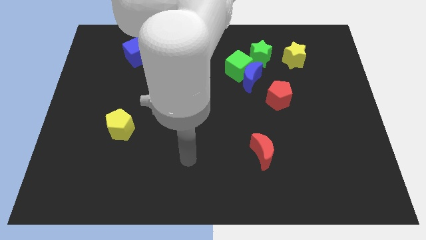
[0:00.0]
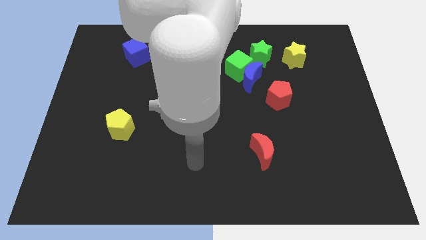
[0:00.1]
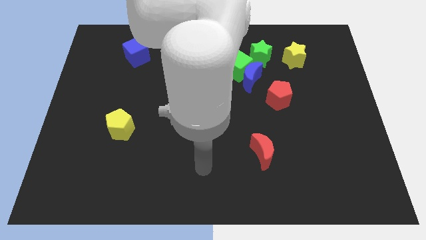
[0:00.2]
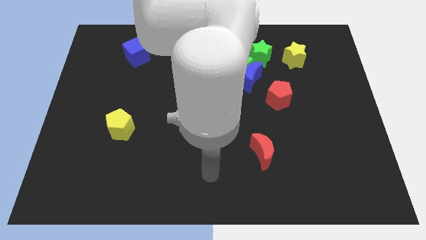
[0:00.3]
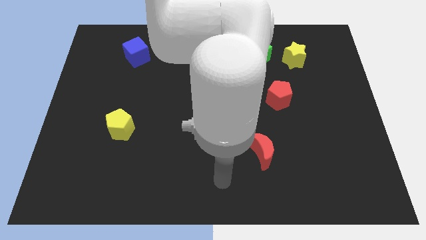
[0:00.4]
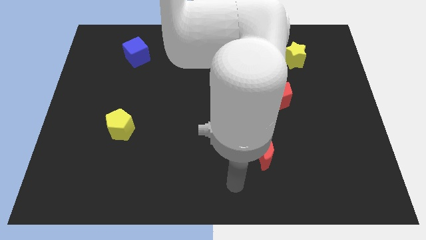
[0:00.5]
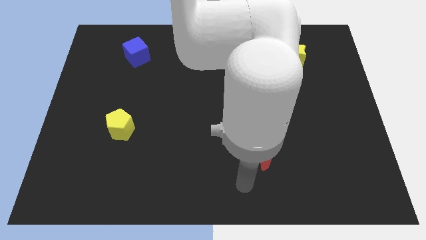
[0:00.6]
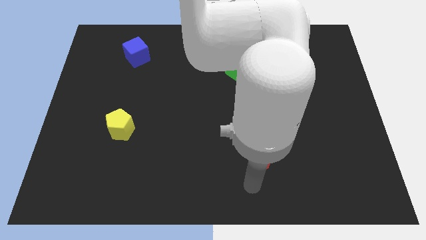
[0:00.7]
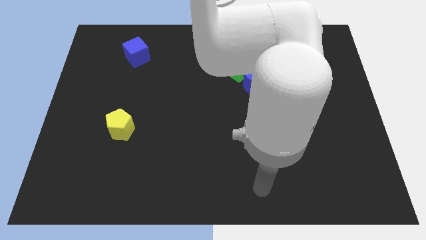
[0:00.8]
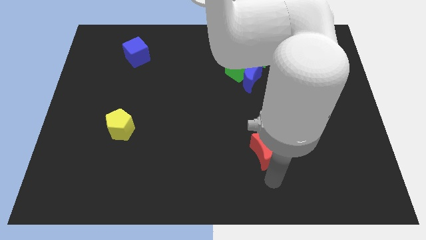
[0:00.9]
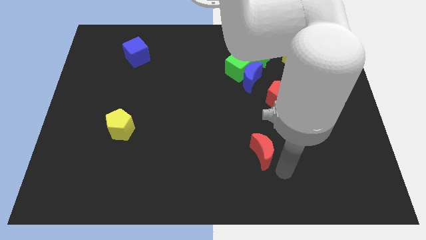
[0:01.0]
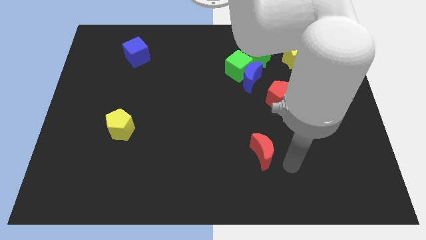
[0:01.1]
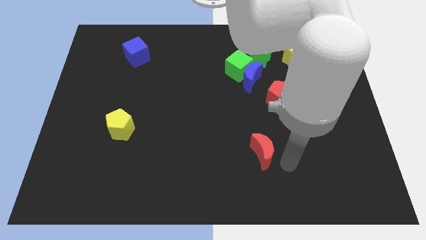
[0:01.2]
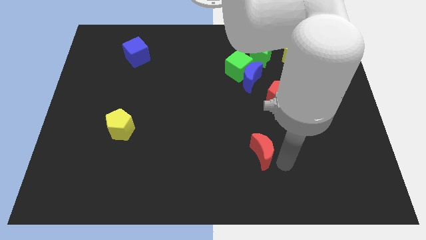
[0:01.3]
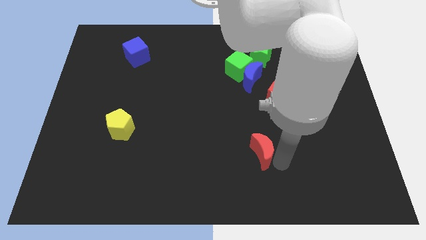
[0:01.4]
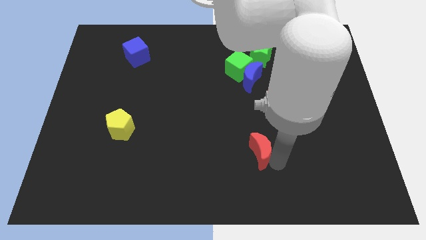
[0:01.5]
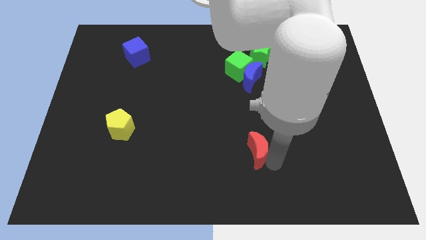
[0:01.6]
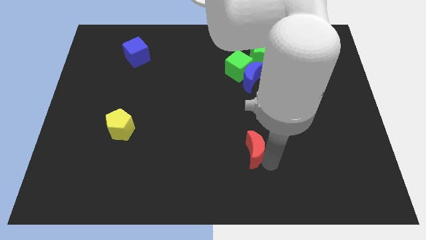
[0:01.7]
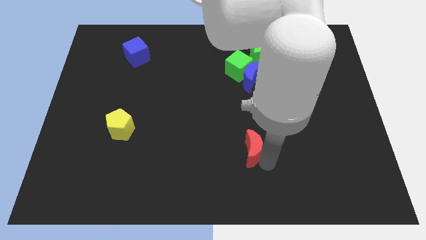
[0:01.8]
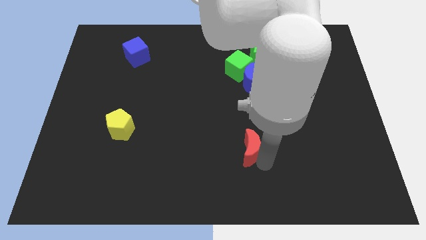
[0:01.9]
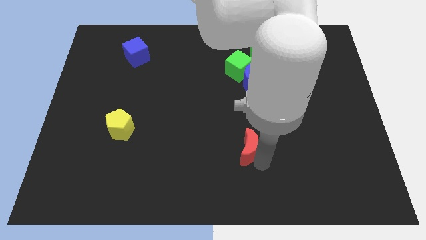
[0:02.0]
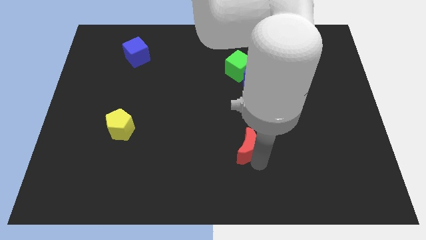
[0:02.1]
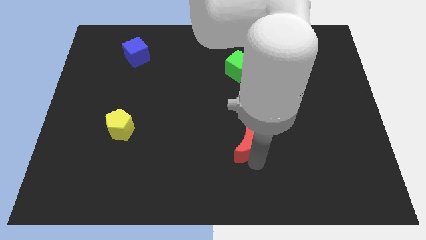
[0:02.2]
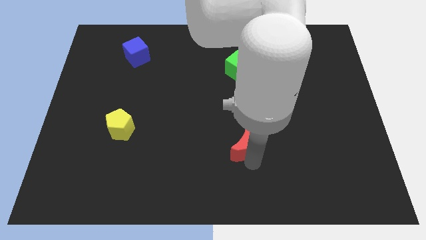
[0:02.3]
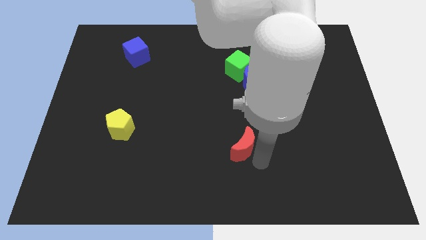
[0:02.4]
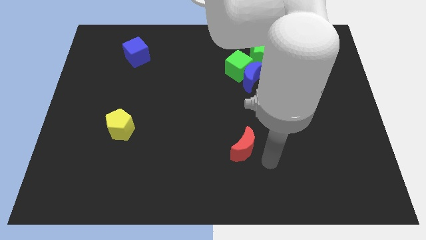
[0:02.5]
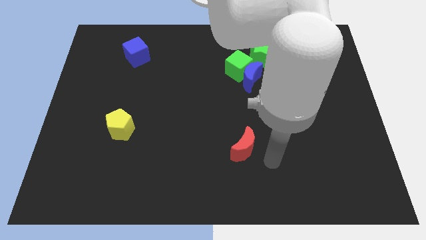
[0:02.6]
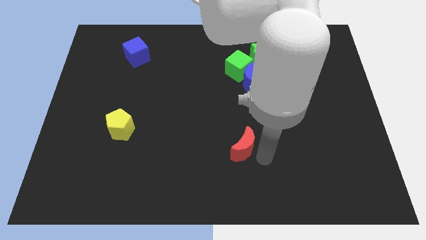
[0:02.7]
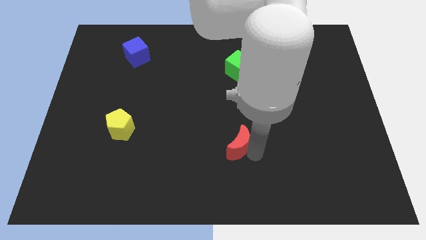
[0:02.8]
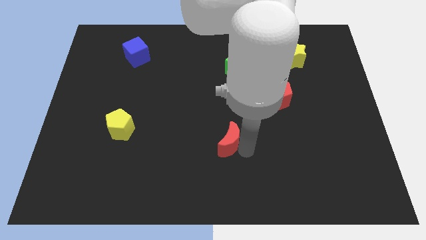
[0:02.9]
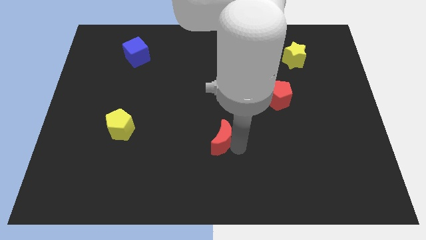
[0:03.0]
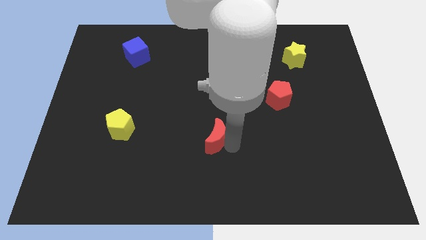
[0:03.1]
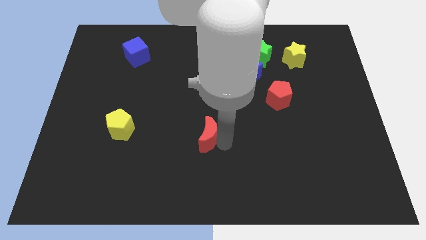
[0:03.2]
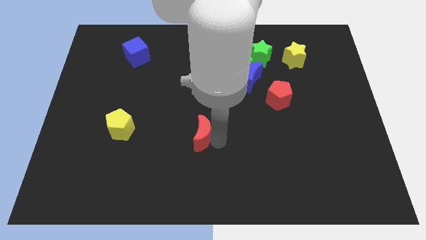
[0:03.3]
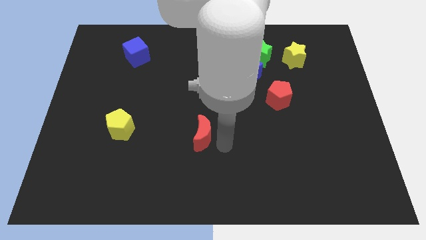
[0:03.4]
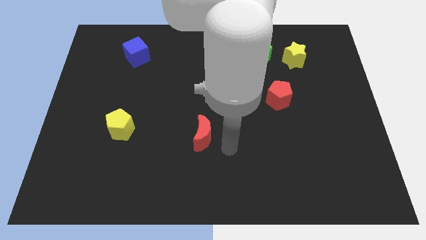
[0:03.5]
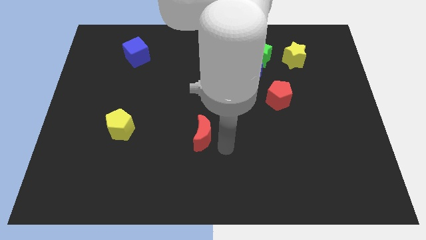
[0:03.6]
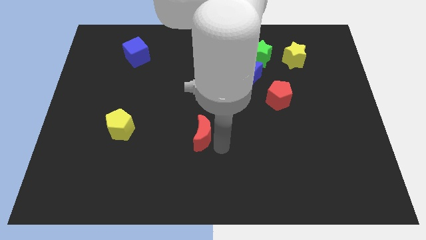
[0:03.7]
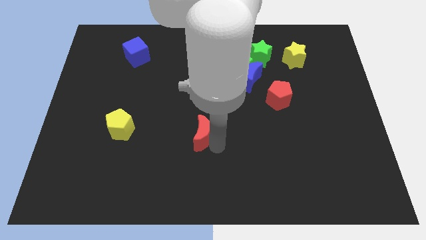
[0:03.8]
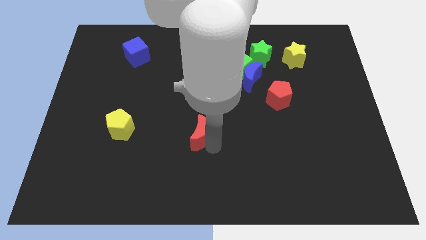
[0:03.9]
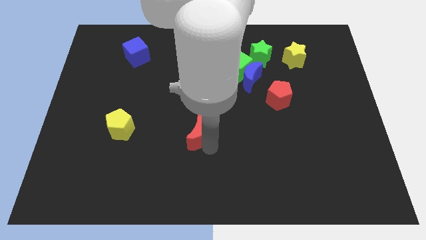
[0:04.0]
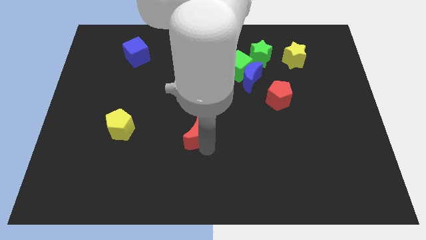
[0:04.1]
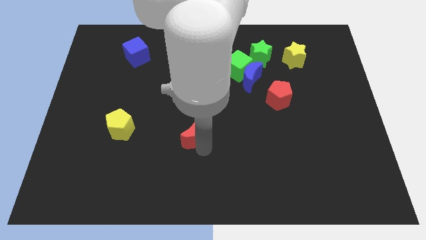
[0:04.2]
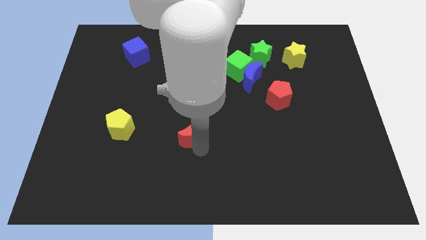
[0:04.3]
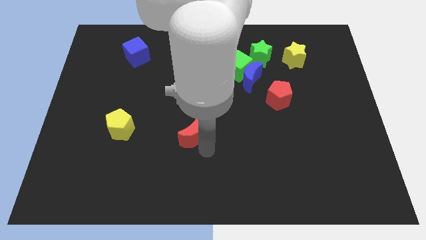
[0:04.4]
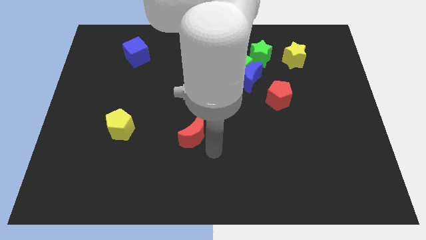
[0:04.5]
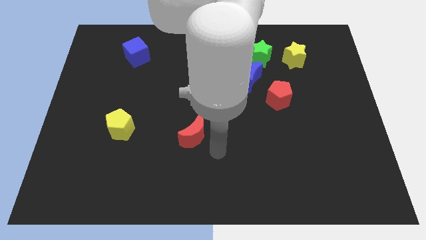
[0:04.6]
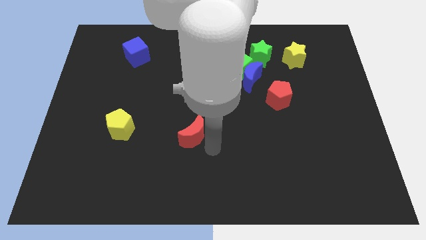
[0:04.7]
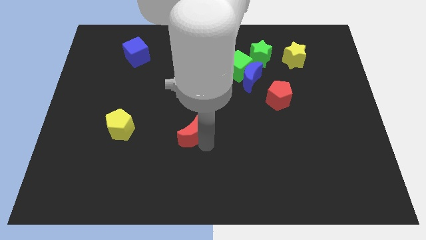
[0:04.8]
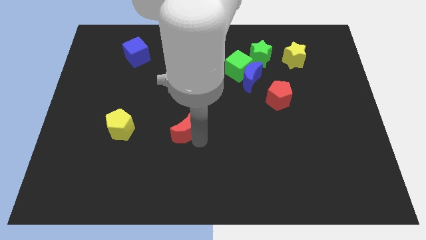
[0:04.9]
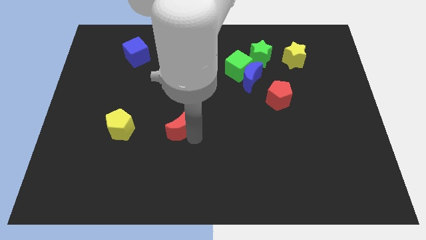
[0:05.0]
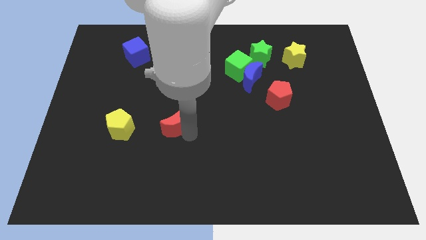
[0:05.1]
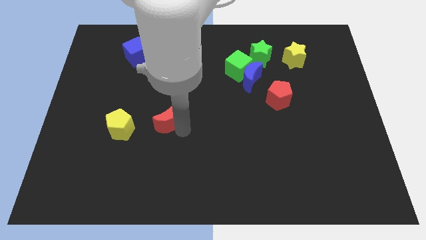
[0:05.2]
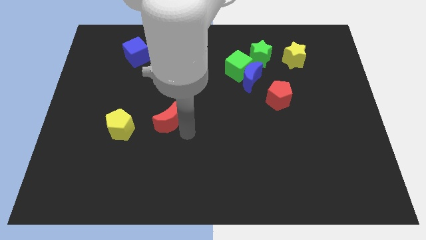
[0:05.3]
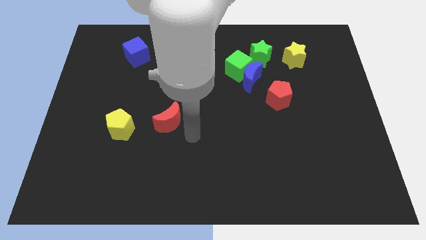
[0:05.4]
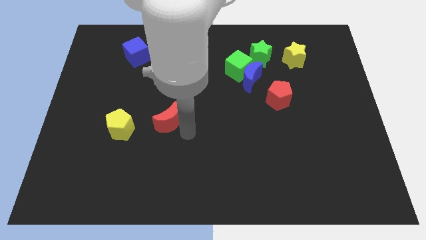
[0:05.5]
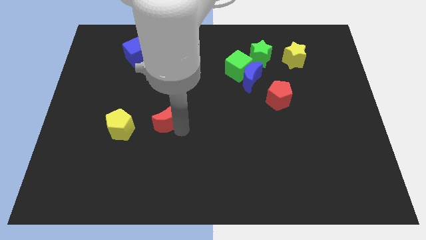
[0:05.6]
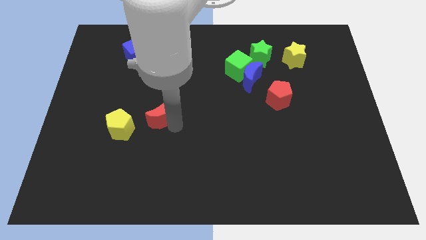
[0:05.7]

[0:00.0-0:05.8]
put the red moon diagonally up and to the right of the yellow pentagon

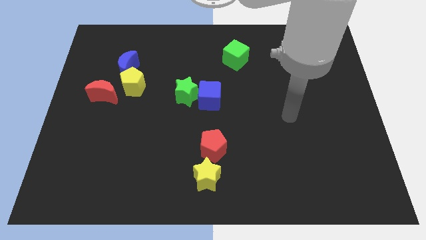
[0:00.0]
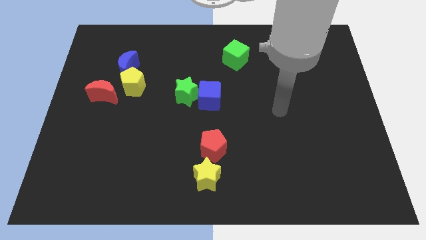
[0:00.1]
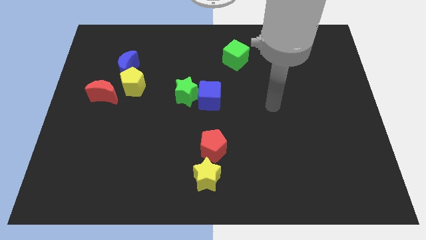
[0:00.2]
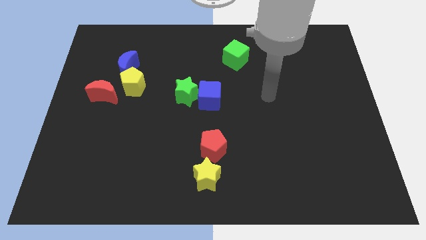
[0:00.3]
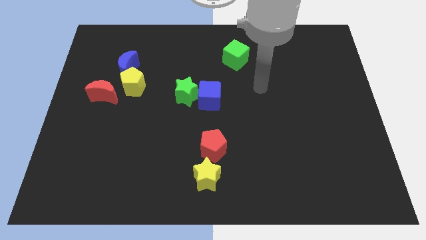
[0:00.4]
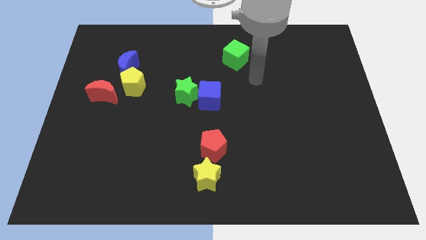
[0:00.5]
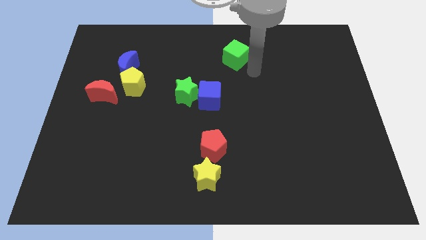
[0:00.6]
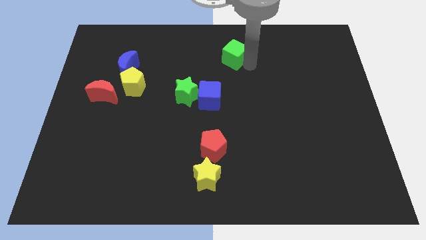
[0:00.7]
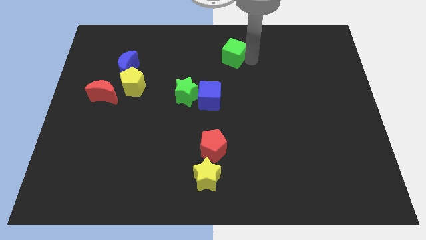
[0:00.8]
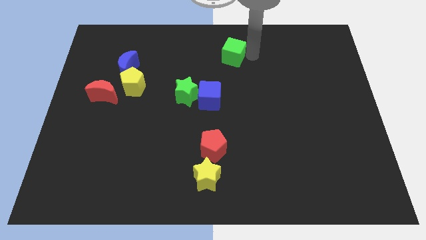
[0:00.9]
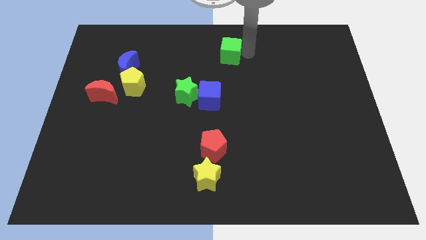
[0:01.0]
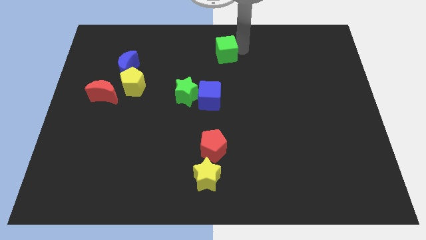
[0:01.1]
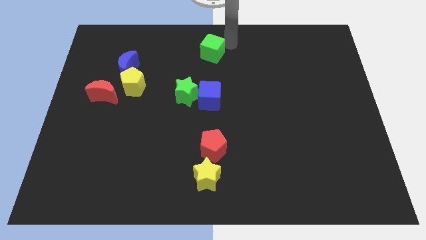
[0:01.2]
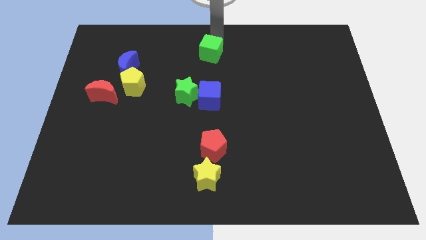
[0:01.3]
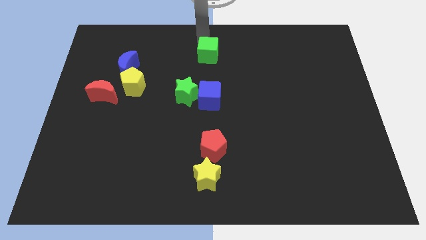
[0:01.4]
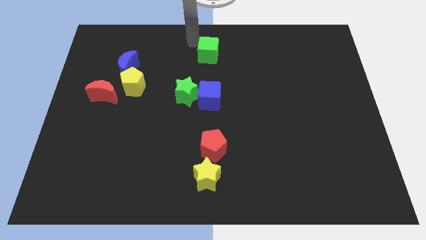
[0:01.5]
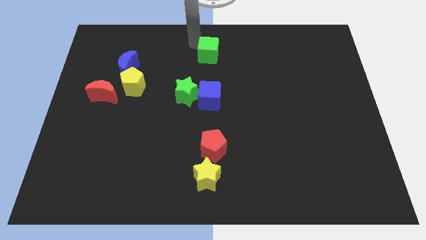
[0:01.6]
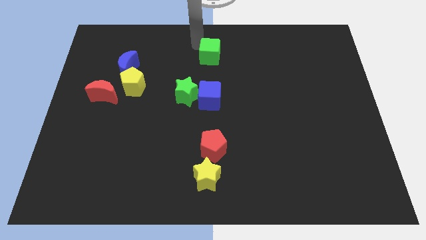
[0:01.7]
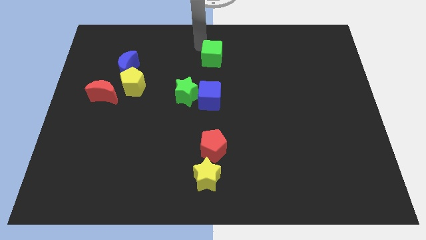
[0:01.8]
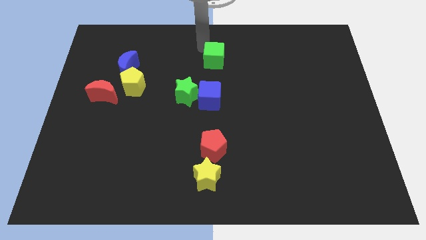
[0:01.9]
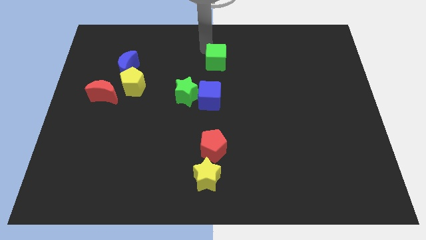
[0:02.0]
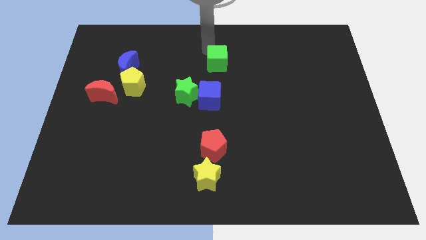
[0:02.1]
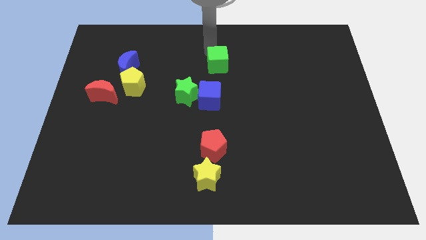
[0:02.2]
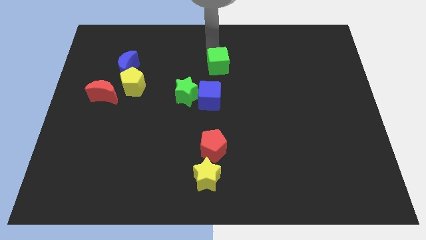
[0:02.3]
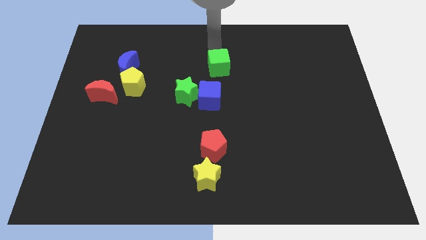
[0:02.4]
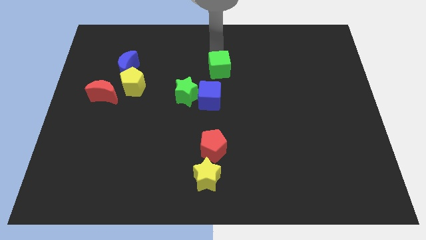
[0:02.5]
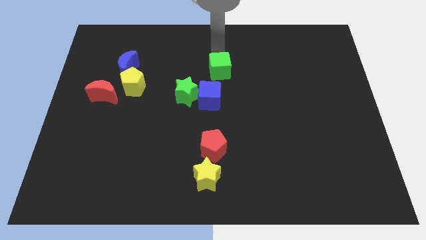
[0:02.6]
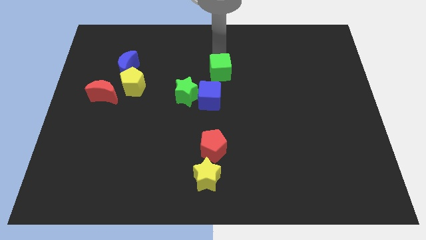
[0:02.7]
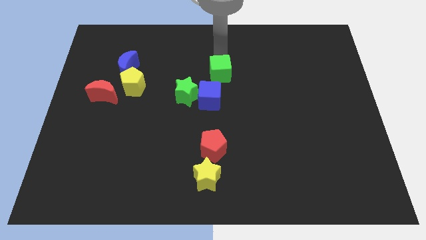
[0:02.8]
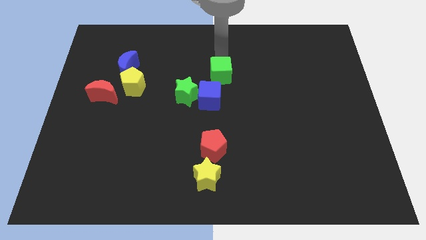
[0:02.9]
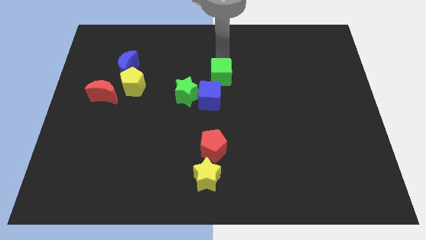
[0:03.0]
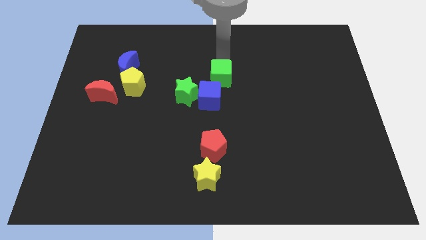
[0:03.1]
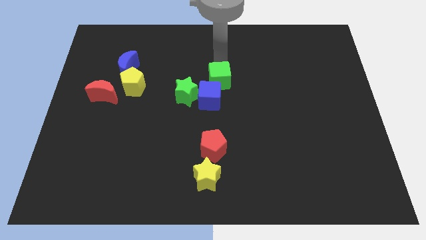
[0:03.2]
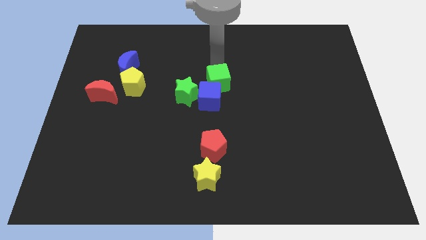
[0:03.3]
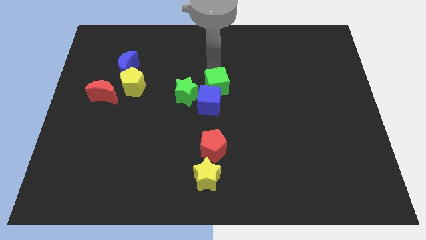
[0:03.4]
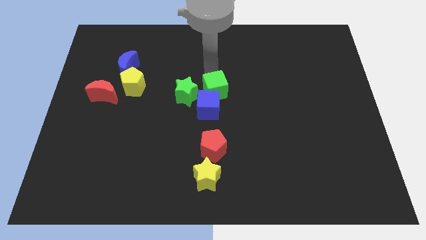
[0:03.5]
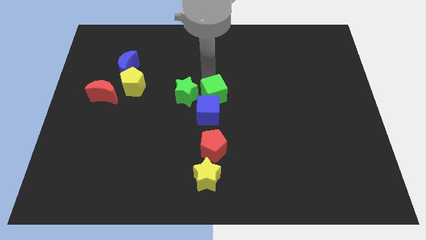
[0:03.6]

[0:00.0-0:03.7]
slide the green cube to the bottom right side of the green star
